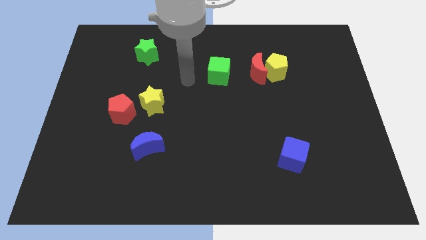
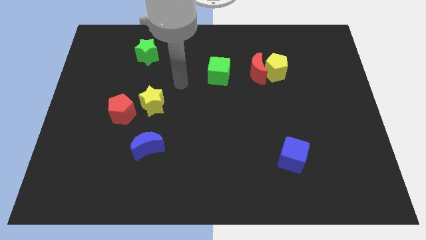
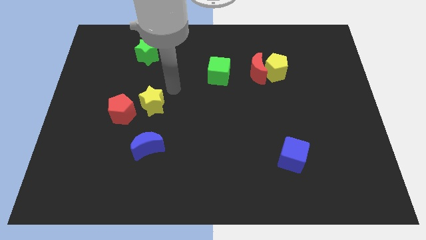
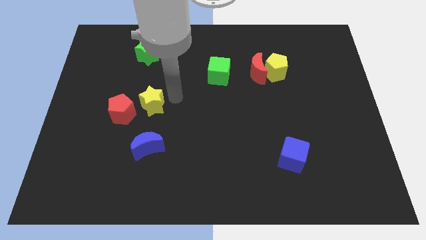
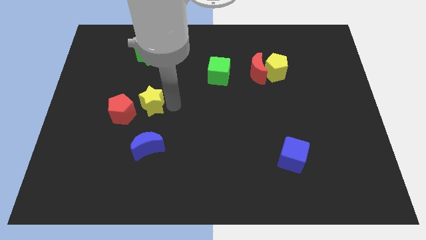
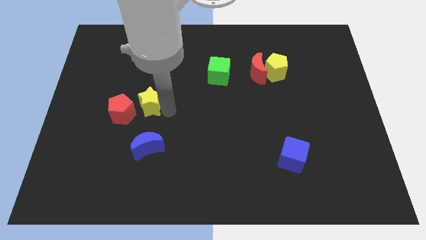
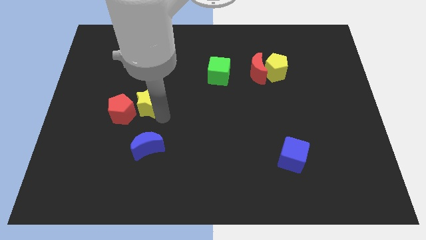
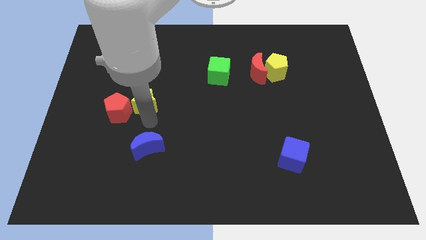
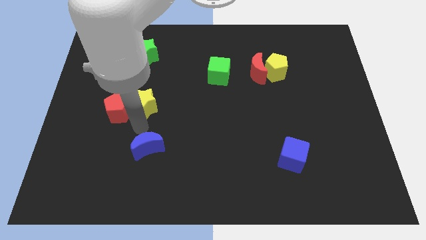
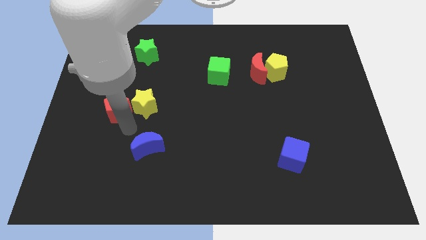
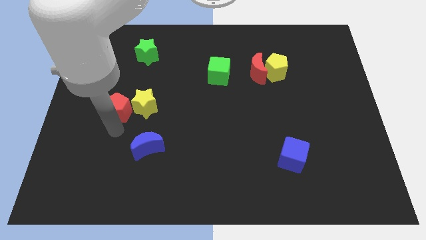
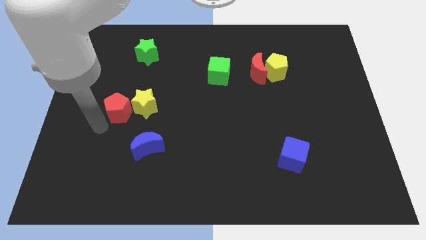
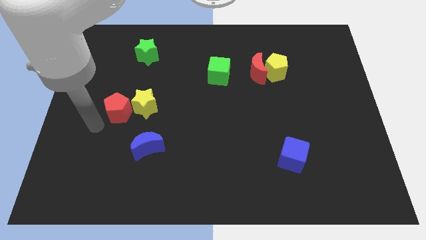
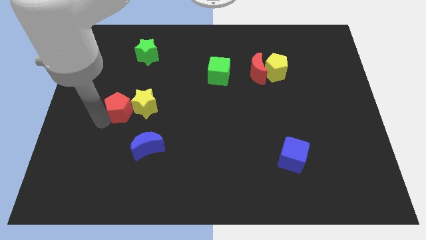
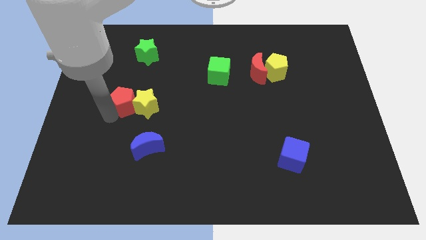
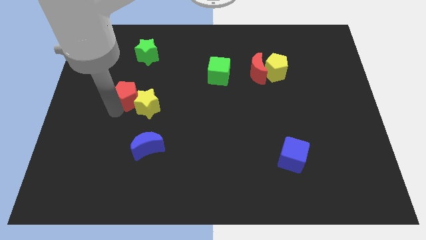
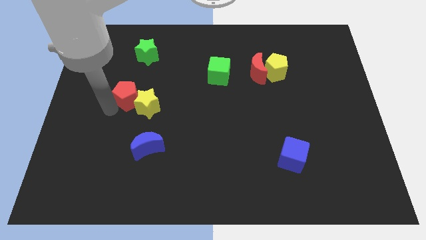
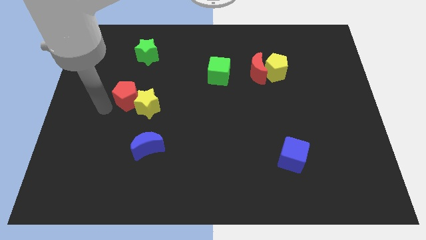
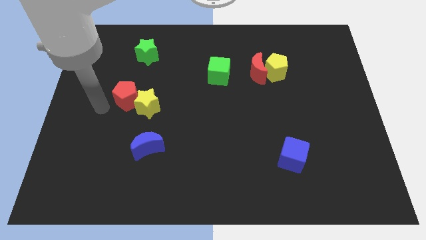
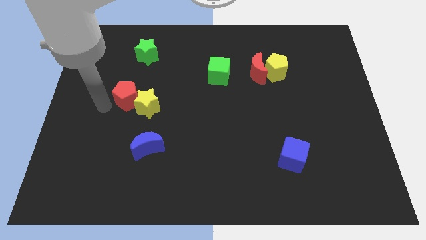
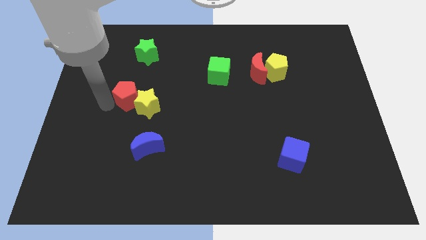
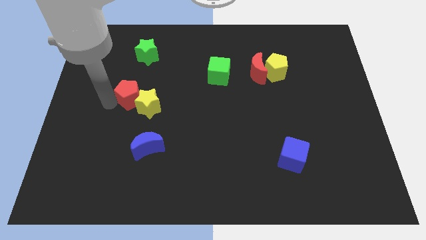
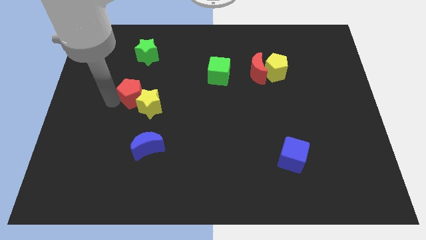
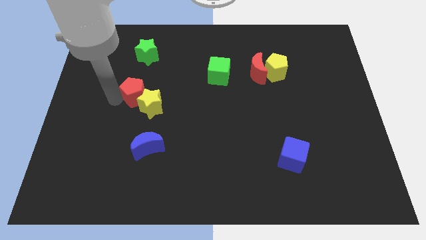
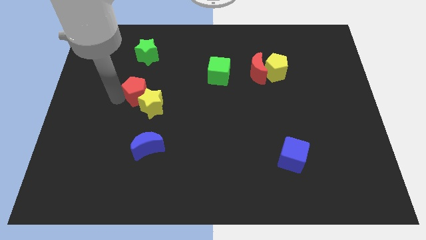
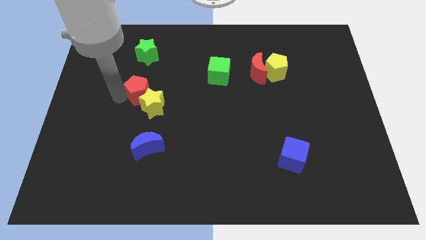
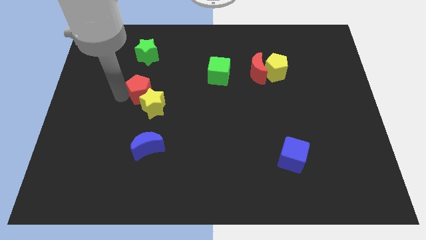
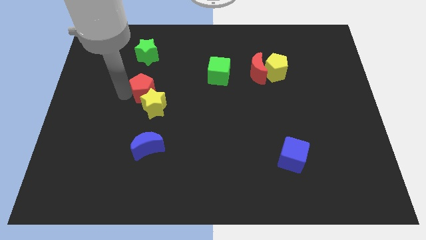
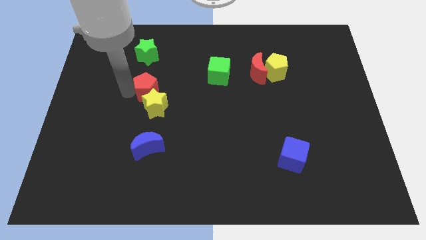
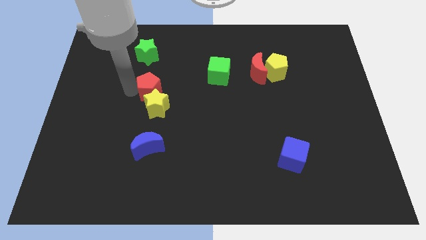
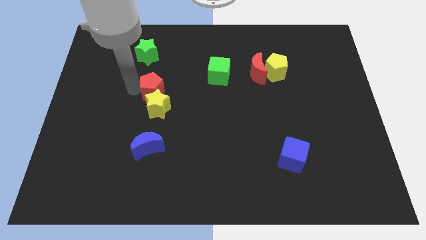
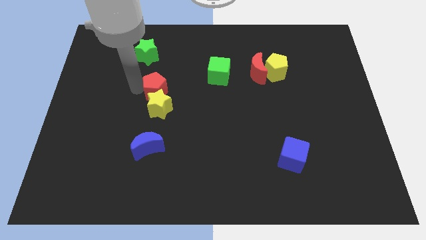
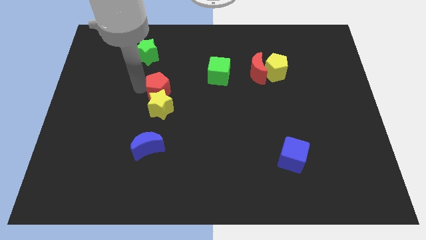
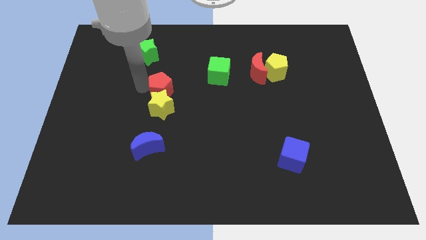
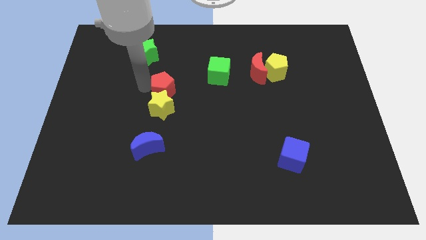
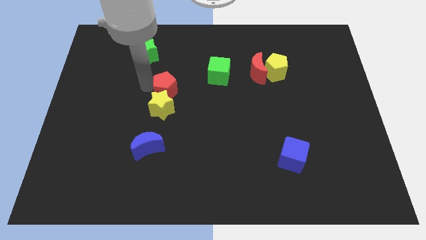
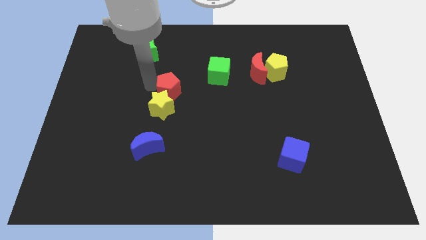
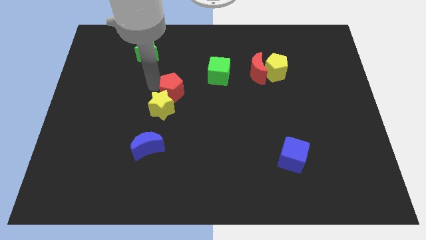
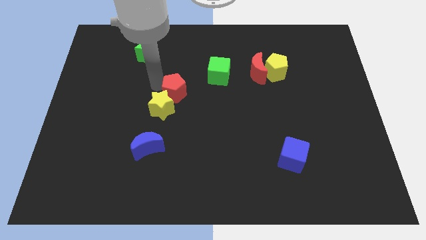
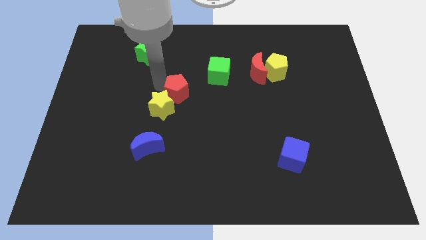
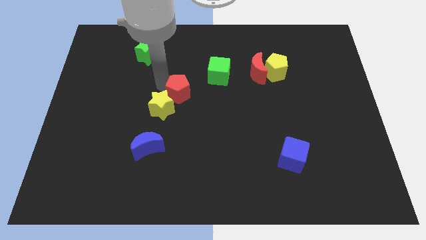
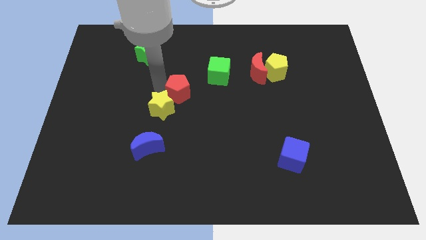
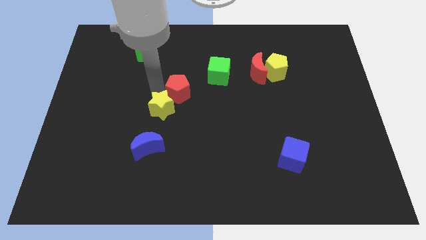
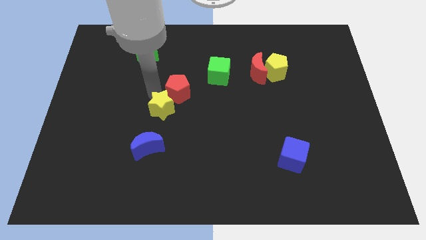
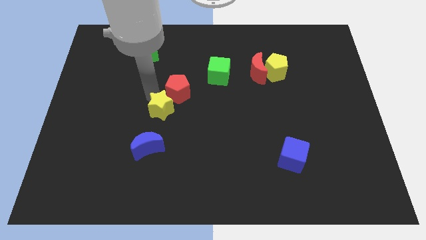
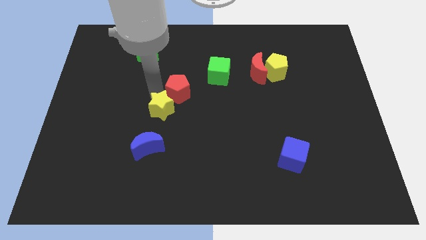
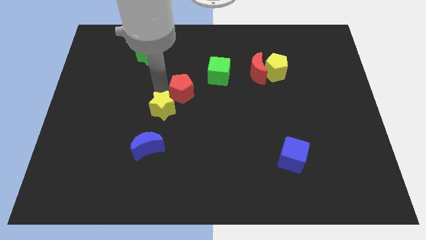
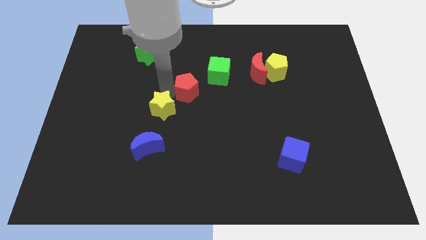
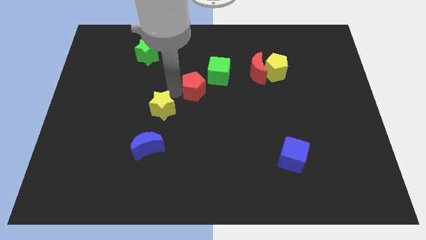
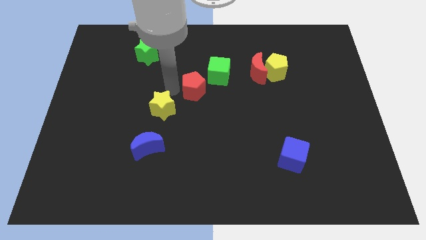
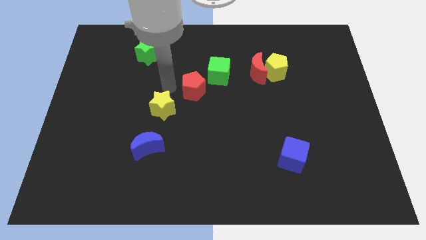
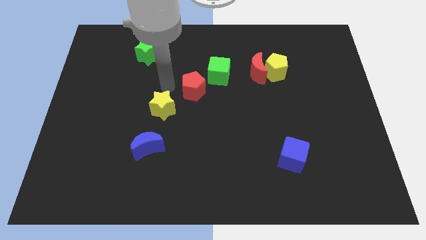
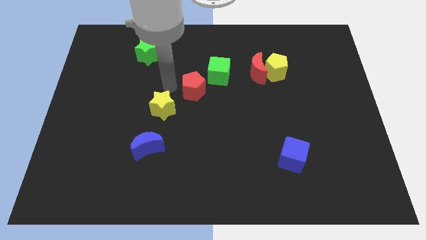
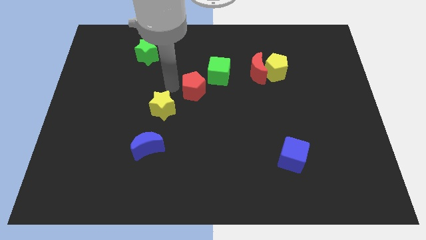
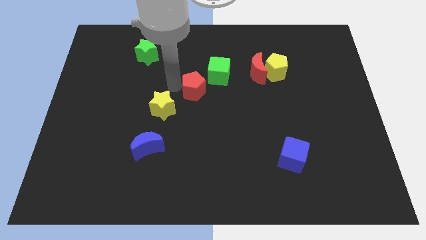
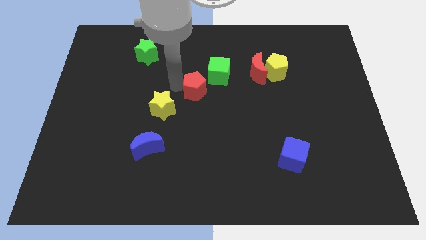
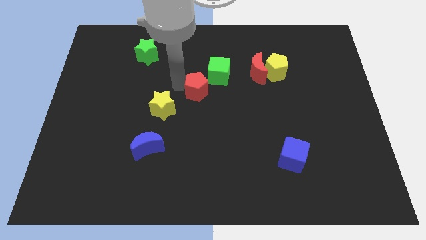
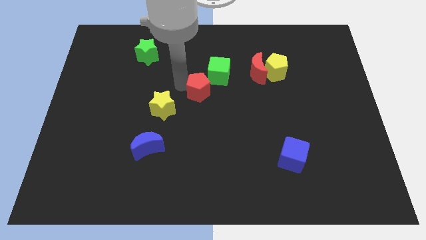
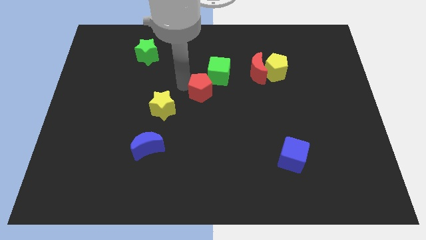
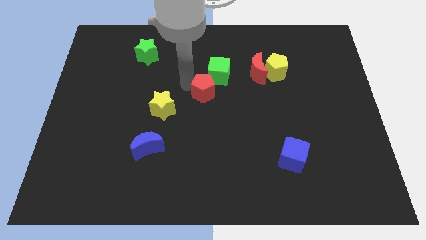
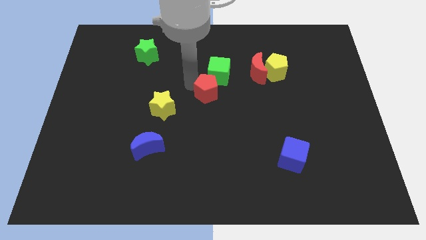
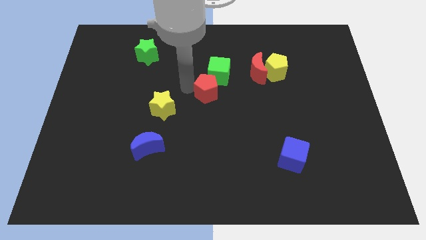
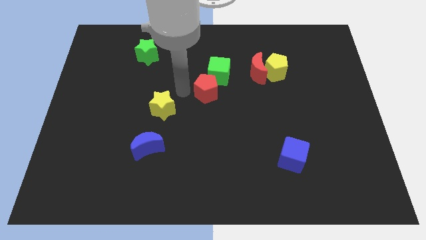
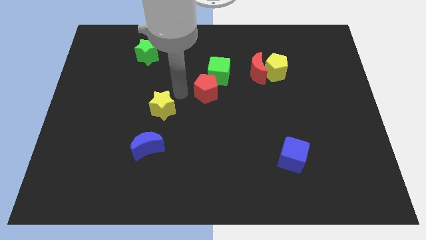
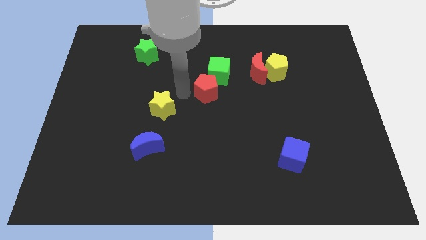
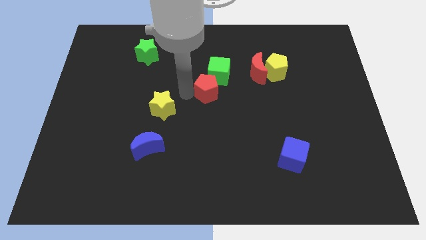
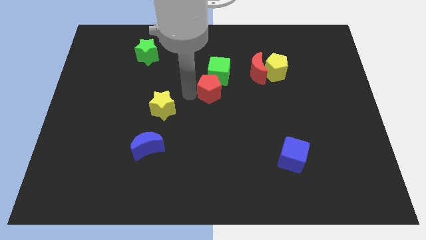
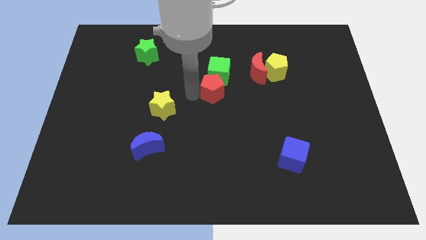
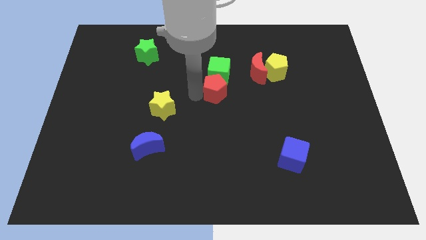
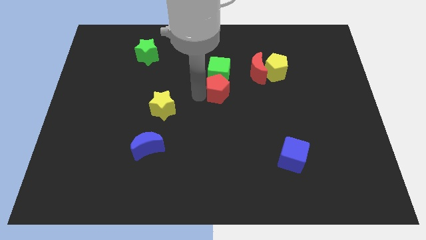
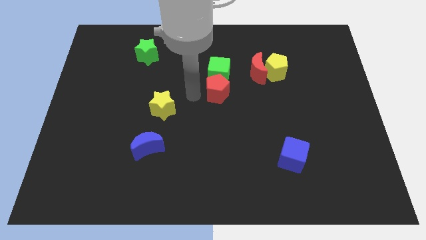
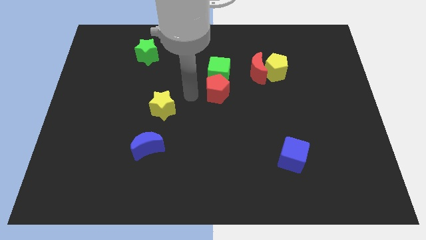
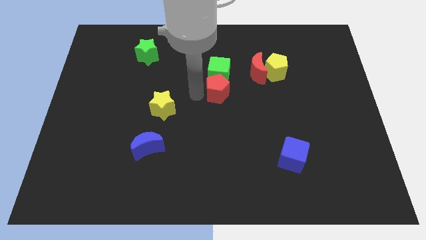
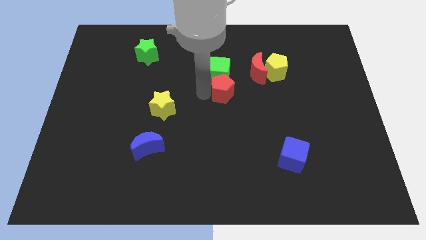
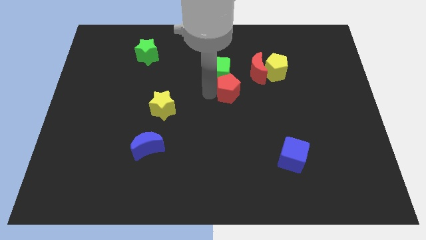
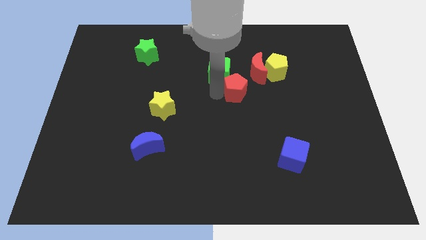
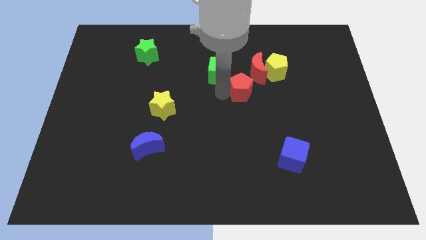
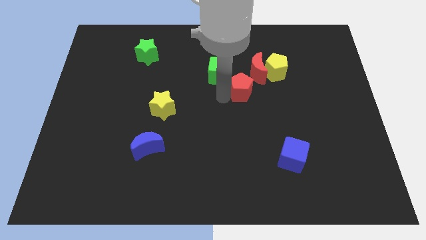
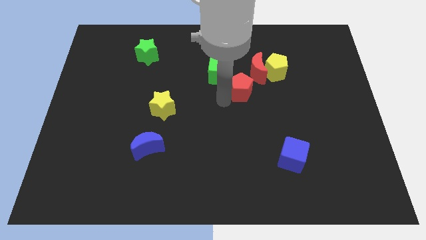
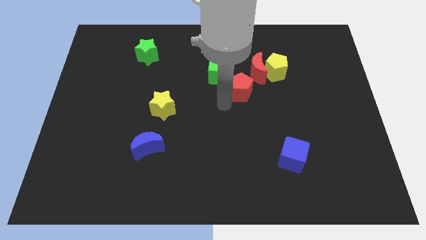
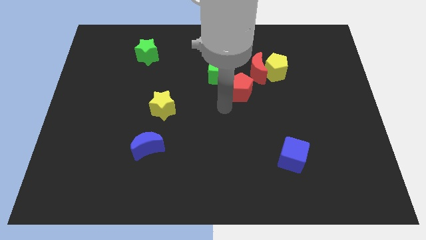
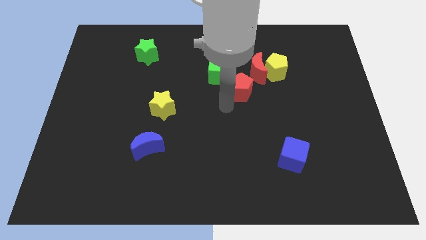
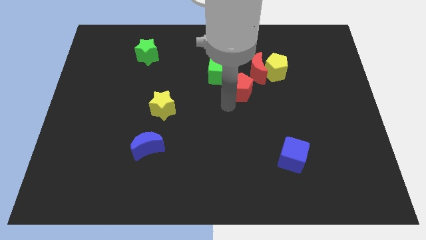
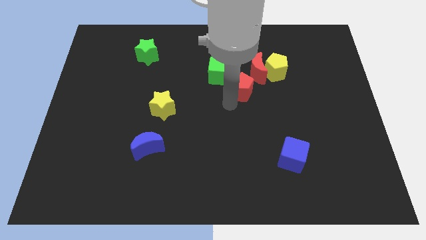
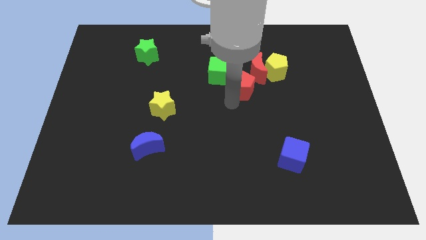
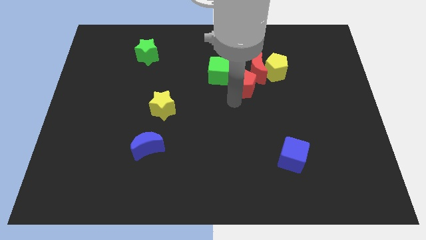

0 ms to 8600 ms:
move the red pentagon to the red moon
